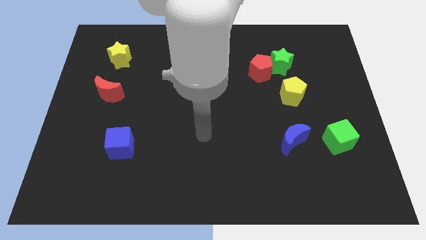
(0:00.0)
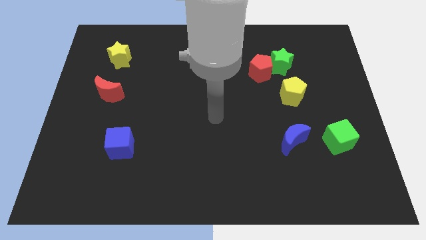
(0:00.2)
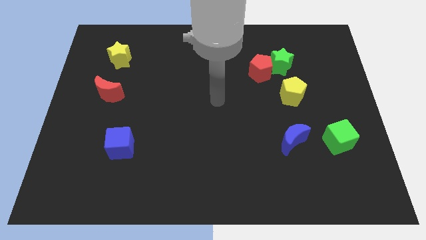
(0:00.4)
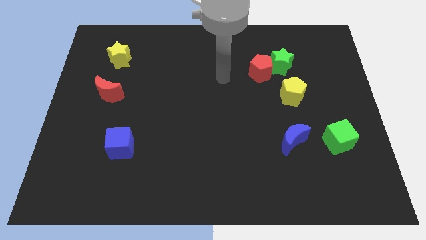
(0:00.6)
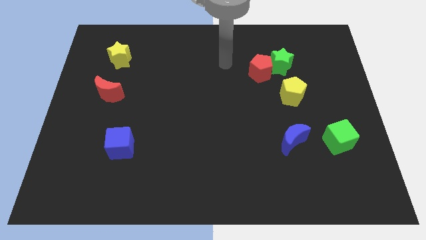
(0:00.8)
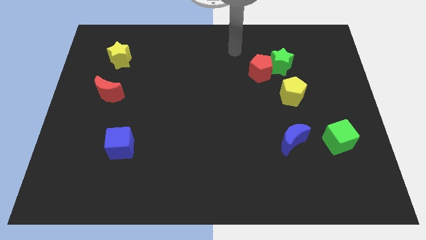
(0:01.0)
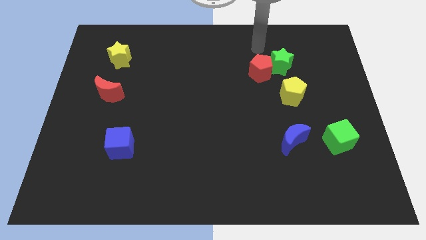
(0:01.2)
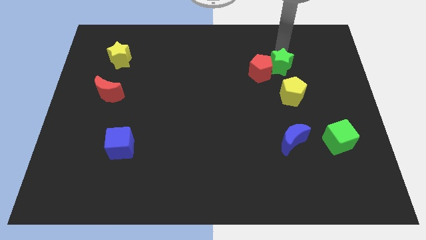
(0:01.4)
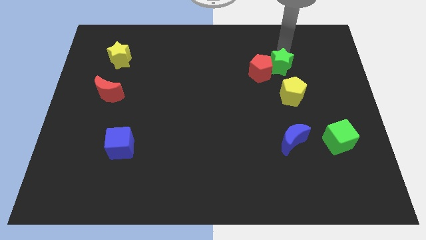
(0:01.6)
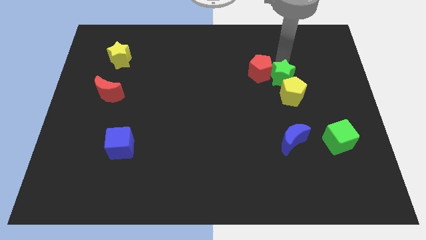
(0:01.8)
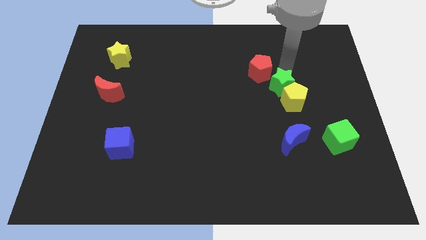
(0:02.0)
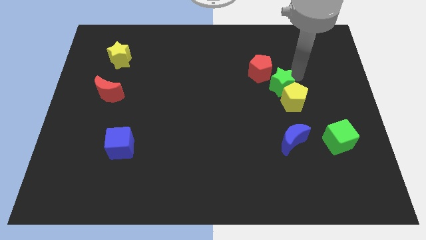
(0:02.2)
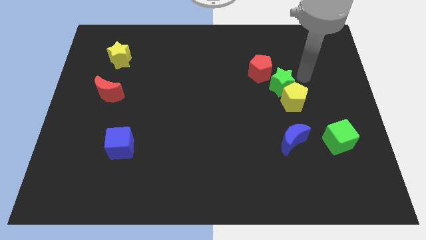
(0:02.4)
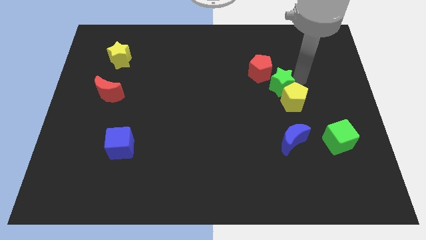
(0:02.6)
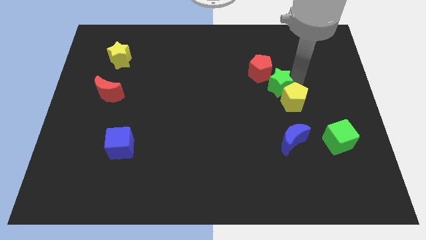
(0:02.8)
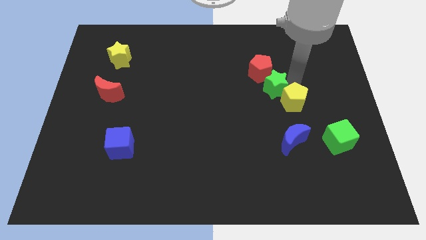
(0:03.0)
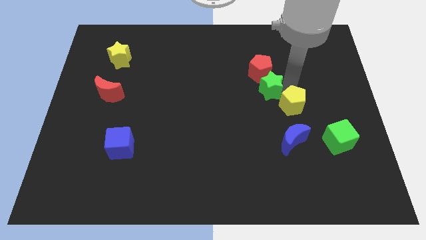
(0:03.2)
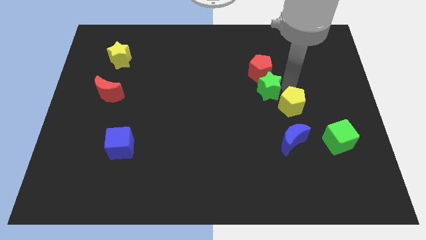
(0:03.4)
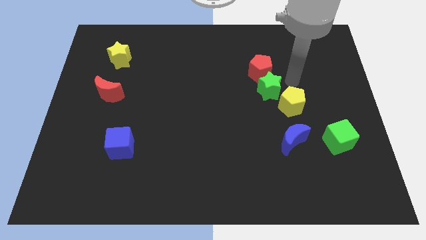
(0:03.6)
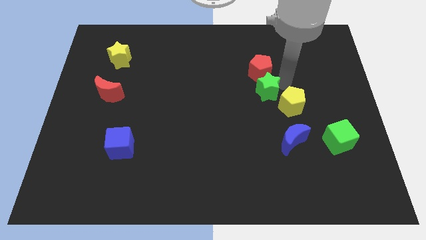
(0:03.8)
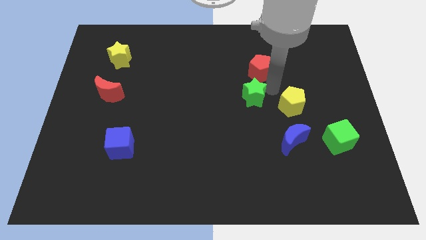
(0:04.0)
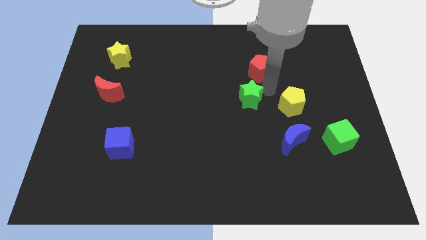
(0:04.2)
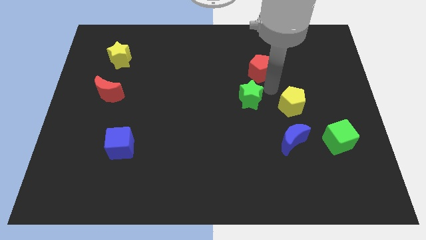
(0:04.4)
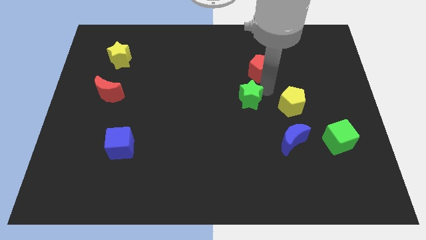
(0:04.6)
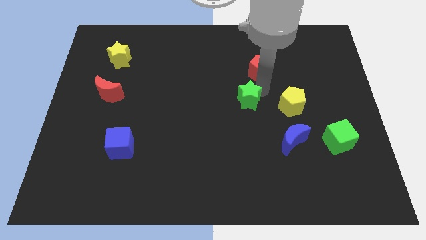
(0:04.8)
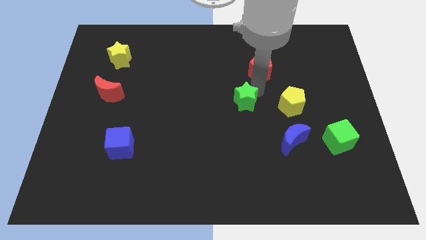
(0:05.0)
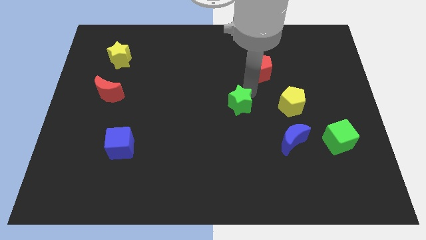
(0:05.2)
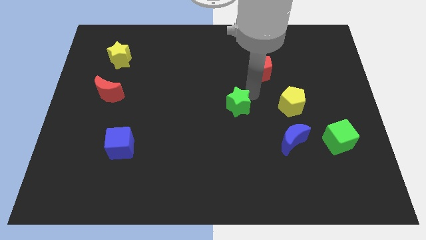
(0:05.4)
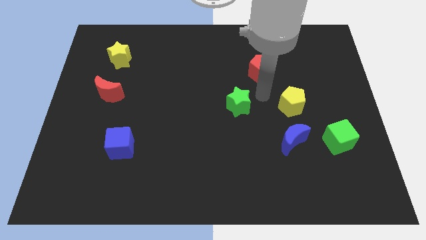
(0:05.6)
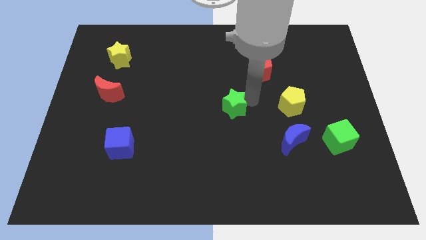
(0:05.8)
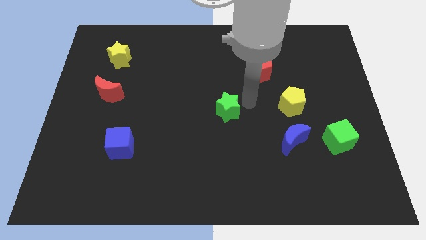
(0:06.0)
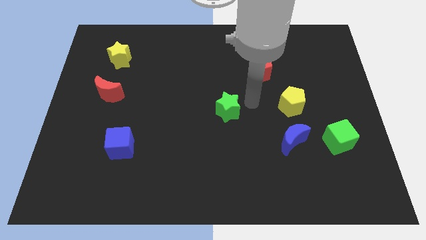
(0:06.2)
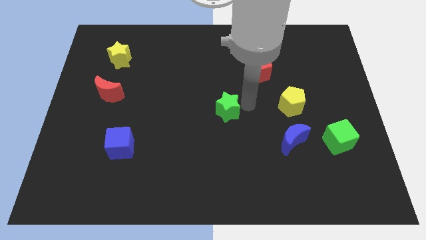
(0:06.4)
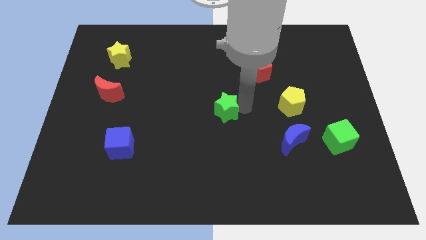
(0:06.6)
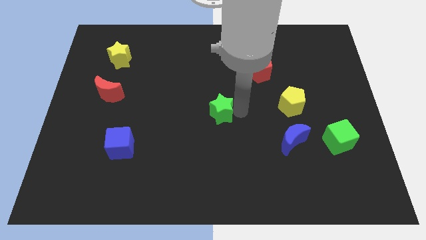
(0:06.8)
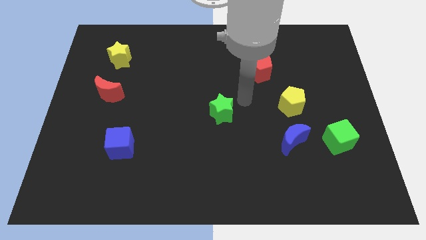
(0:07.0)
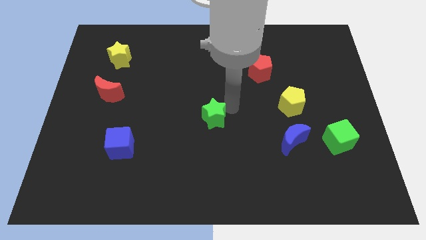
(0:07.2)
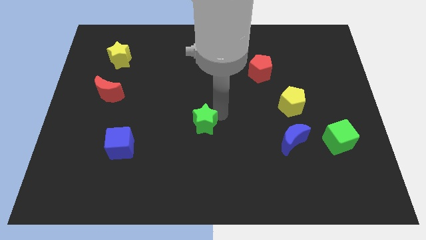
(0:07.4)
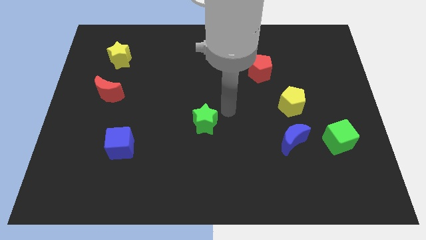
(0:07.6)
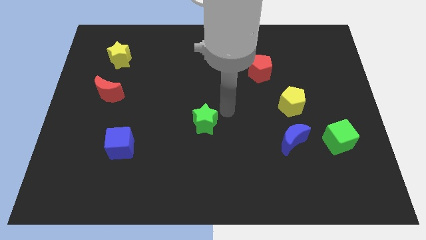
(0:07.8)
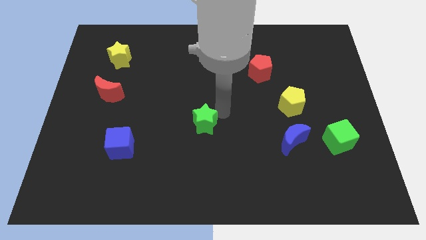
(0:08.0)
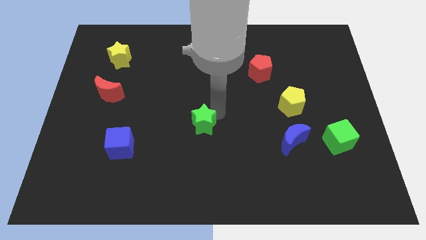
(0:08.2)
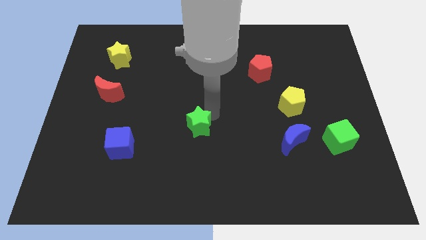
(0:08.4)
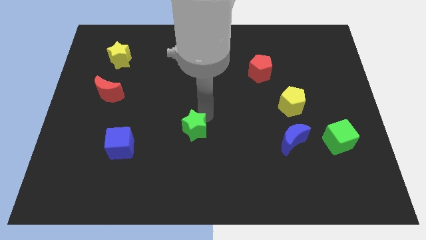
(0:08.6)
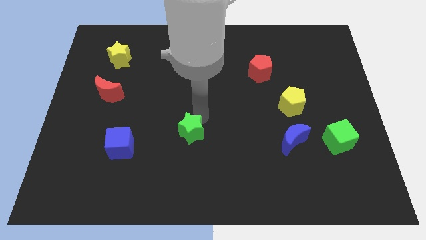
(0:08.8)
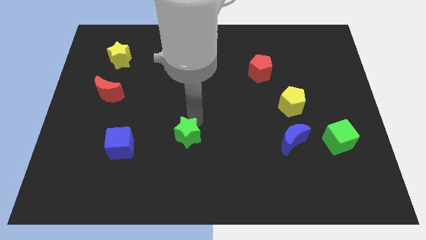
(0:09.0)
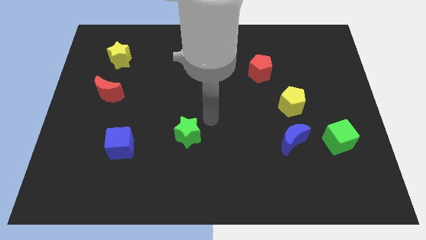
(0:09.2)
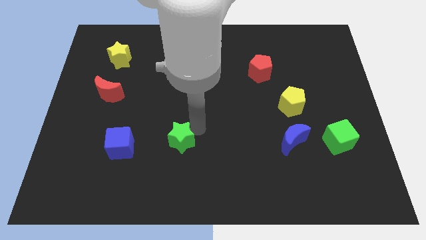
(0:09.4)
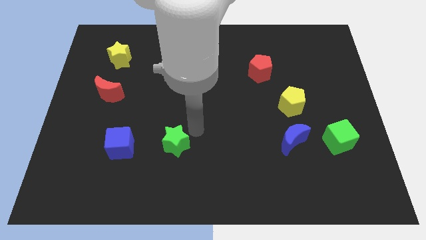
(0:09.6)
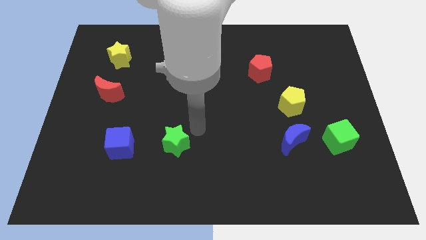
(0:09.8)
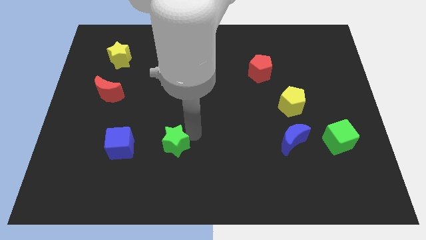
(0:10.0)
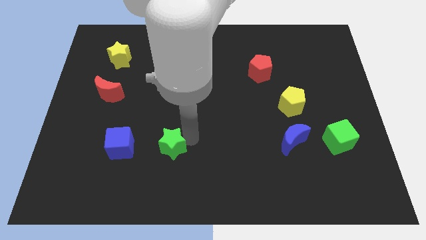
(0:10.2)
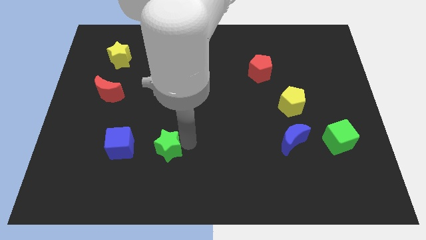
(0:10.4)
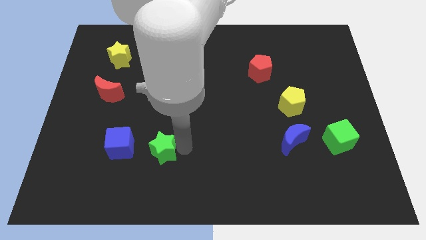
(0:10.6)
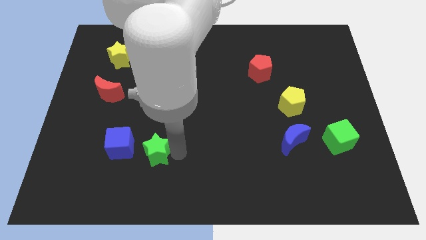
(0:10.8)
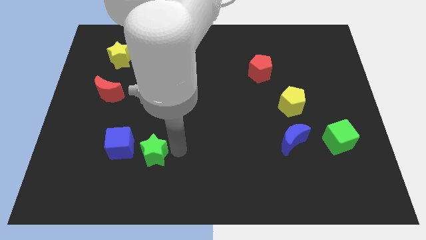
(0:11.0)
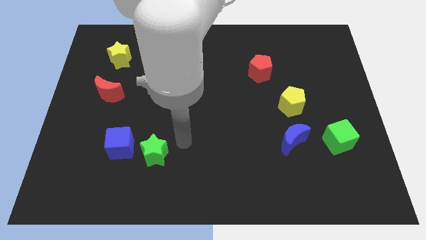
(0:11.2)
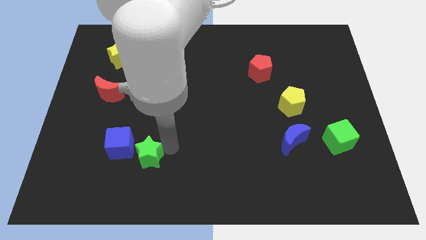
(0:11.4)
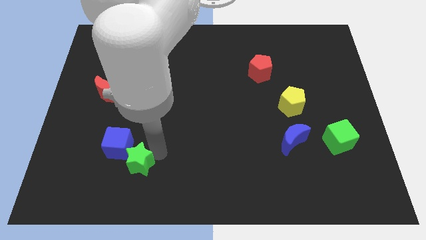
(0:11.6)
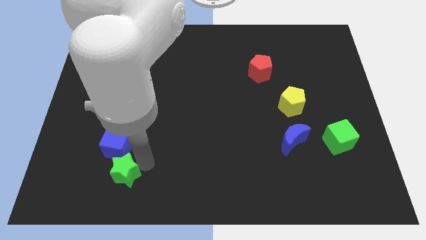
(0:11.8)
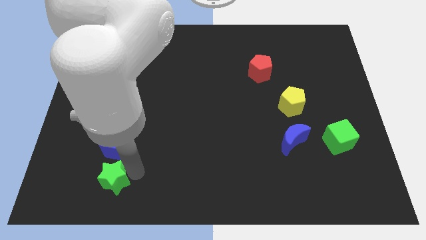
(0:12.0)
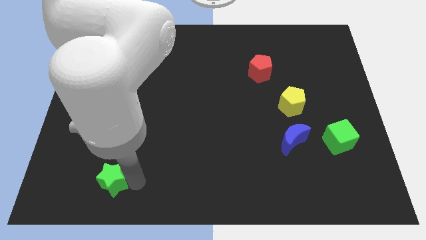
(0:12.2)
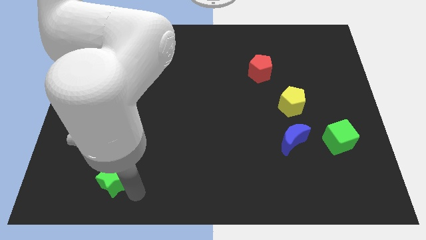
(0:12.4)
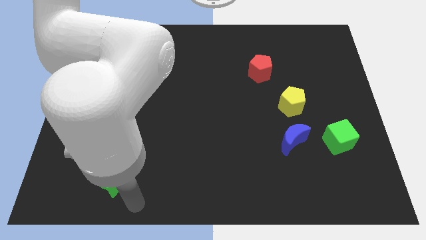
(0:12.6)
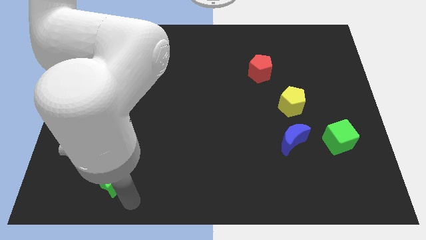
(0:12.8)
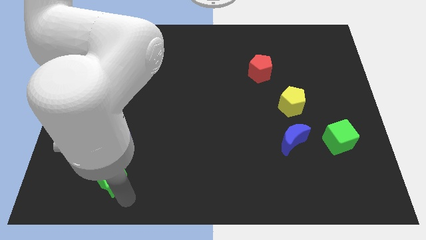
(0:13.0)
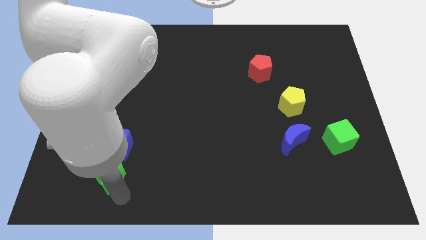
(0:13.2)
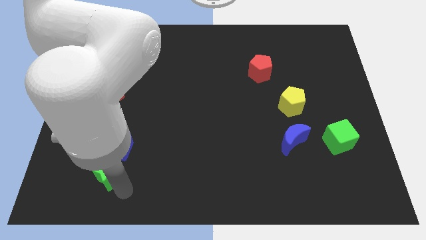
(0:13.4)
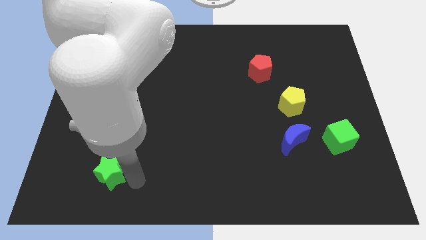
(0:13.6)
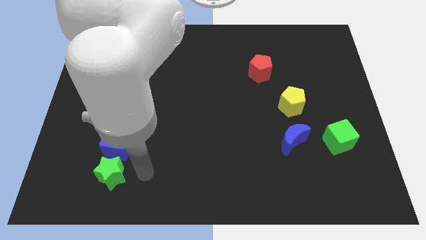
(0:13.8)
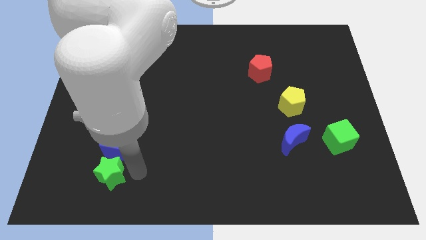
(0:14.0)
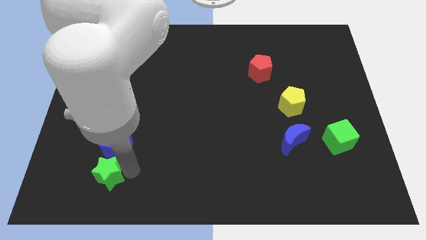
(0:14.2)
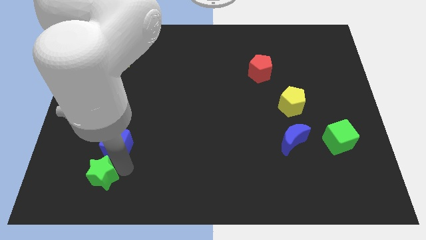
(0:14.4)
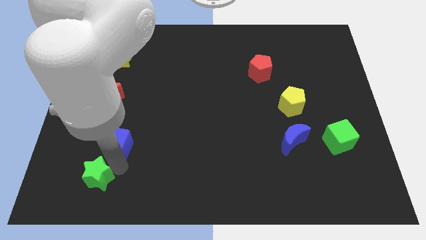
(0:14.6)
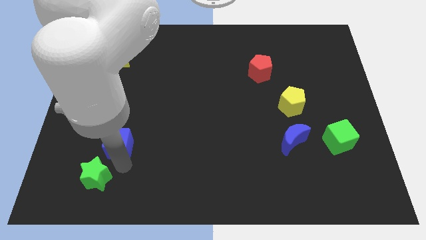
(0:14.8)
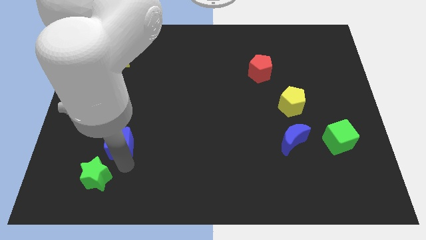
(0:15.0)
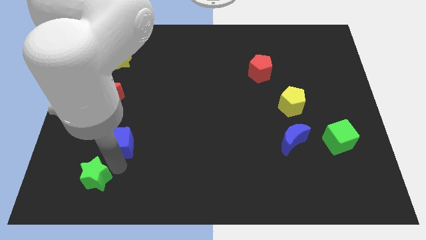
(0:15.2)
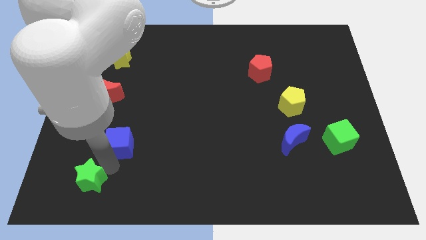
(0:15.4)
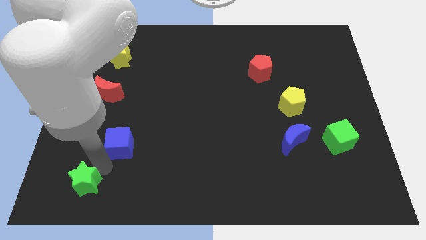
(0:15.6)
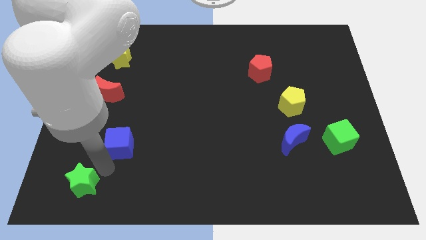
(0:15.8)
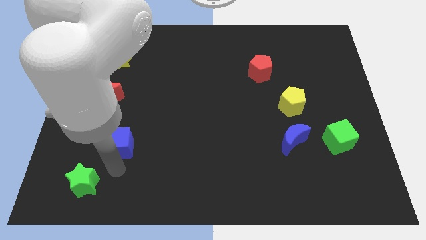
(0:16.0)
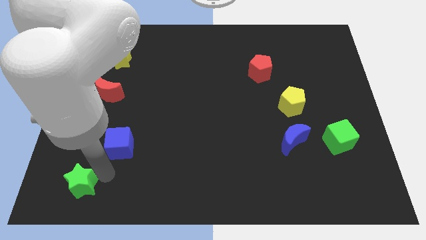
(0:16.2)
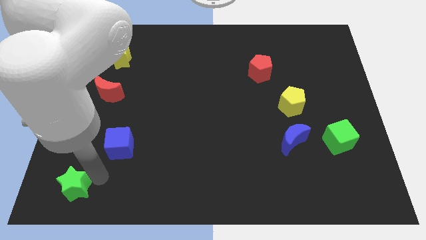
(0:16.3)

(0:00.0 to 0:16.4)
slide the green star to the lower left corner
